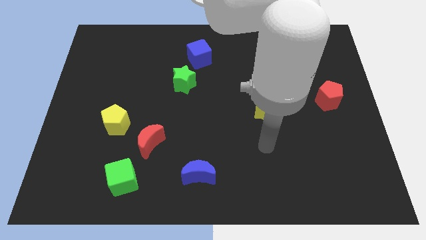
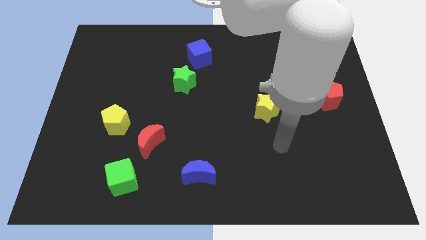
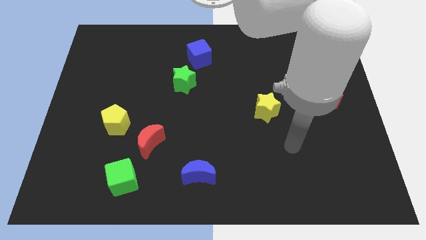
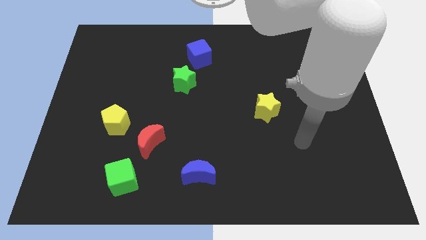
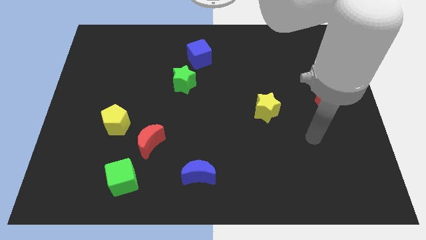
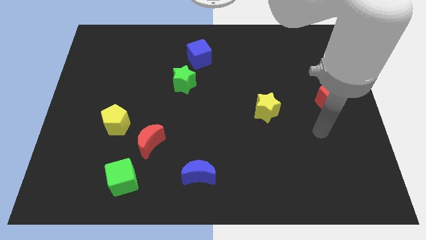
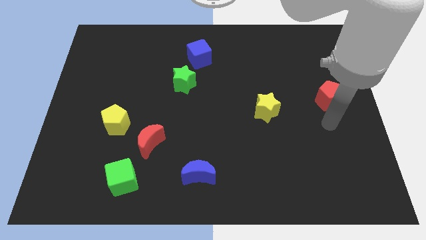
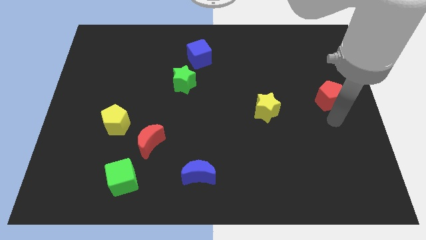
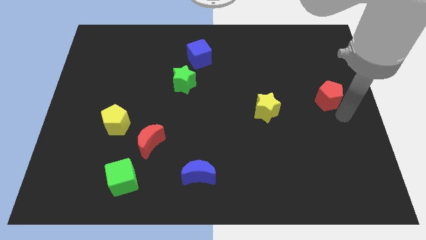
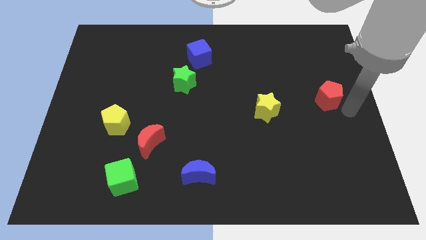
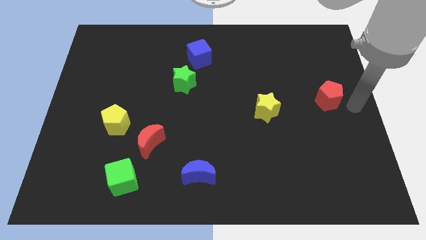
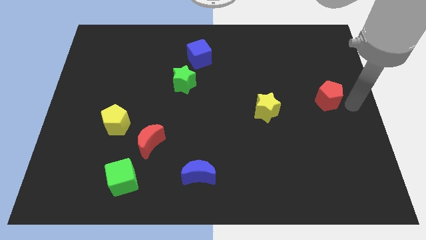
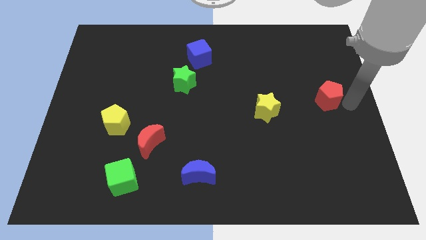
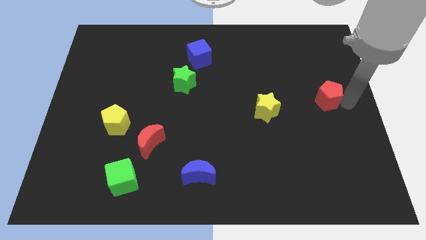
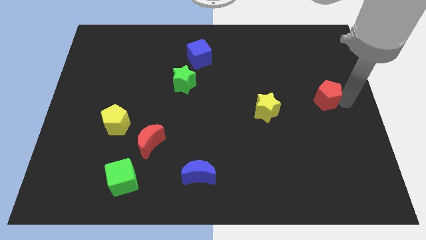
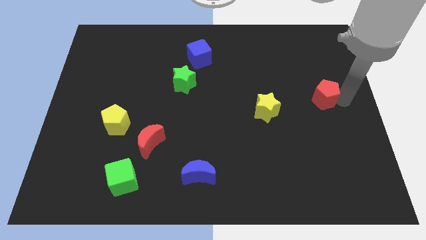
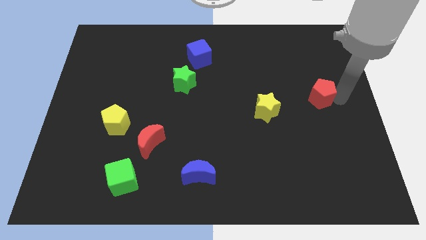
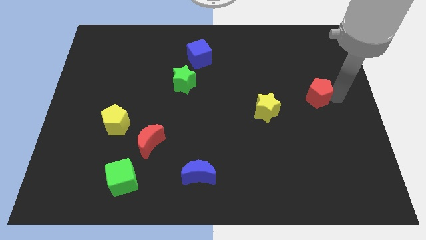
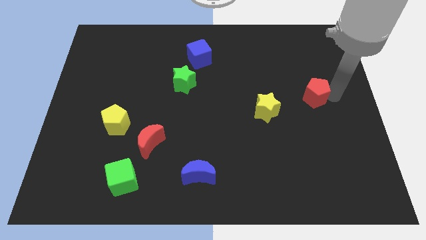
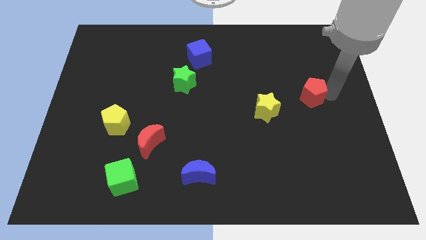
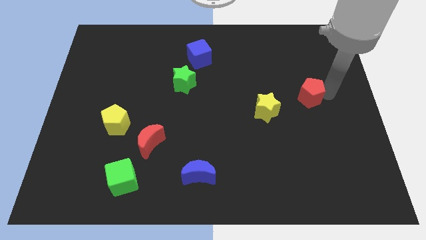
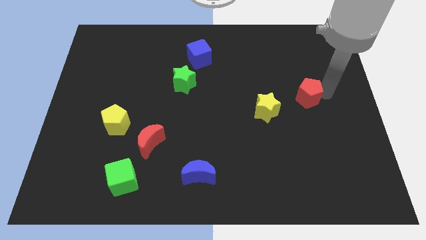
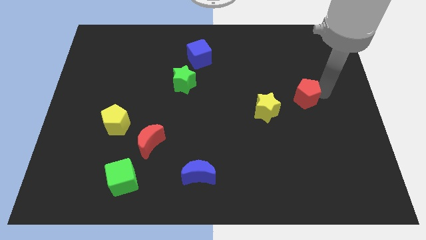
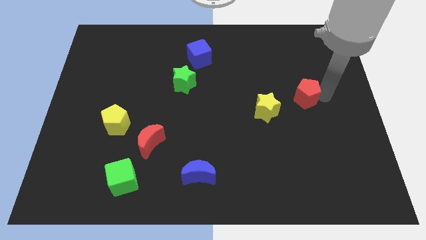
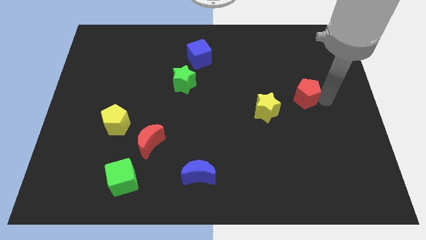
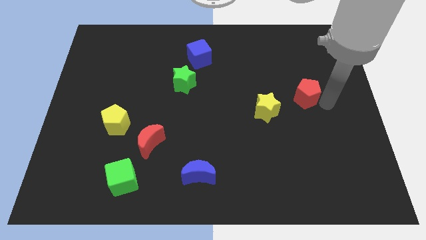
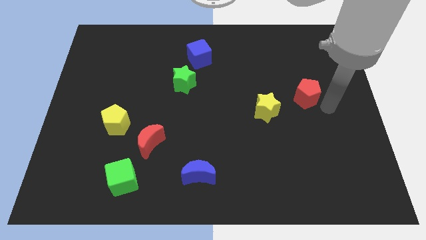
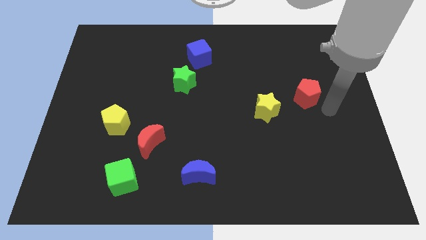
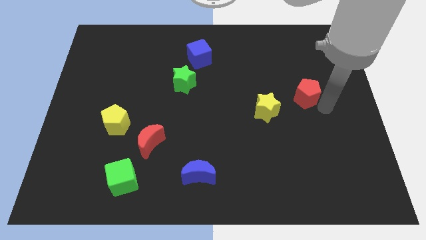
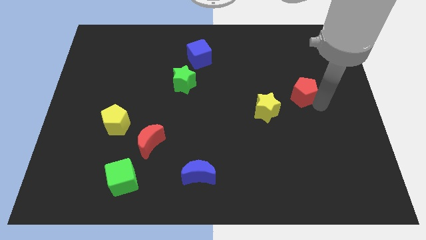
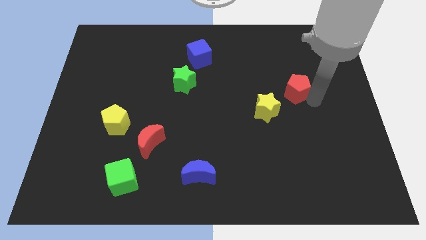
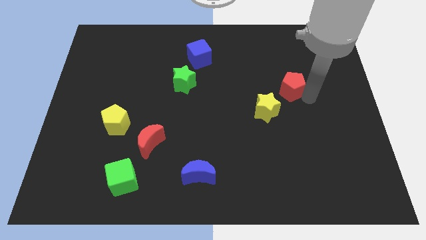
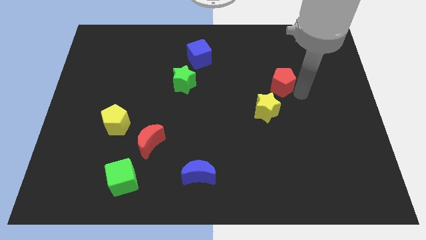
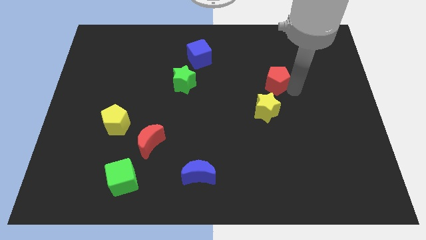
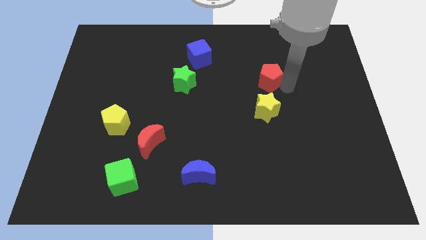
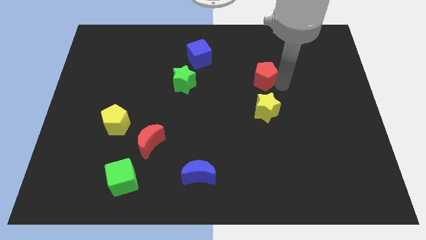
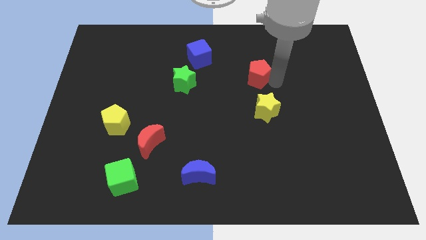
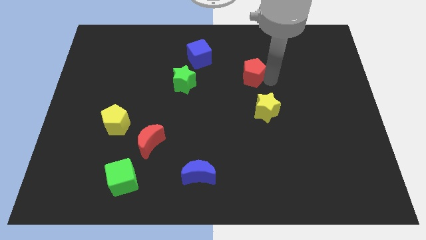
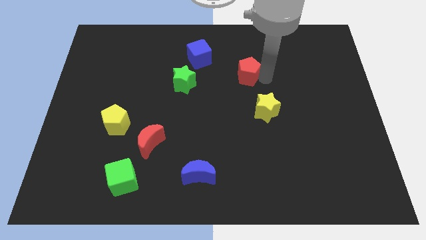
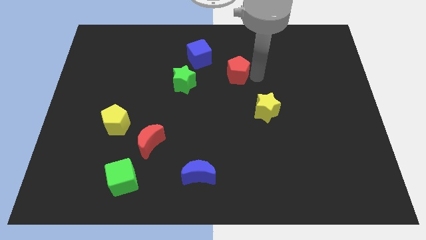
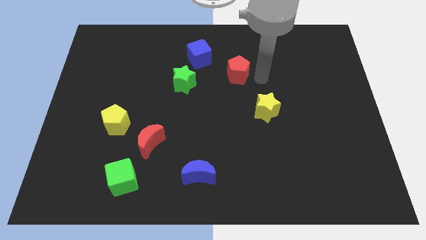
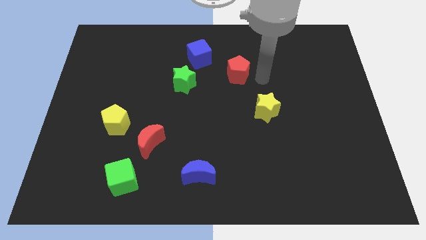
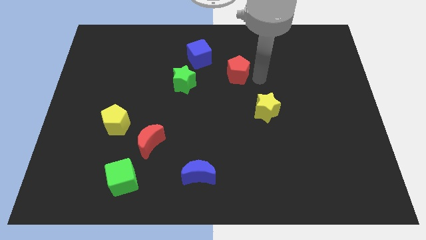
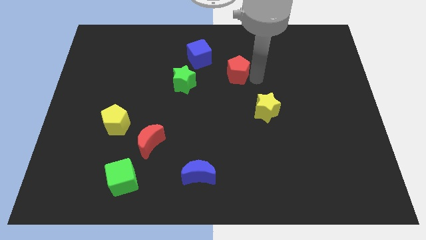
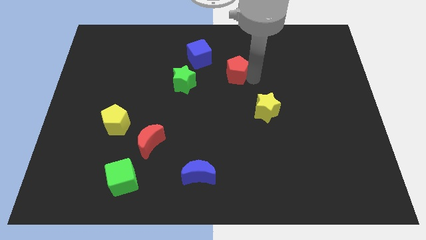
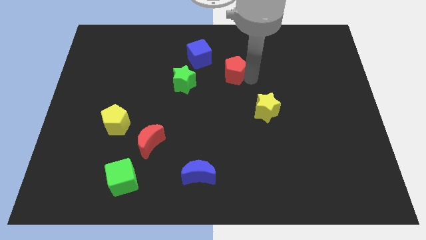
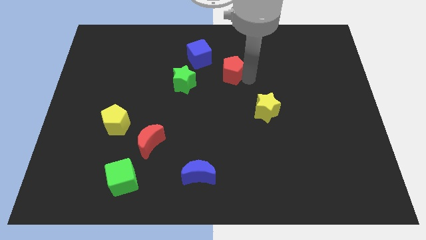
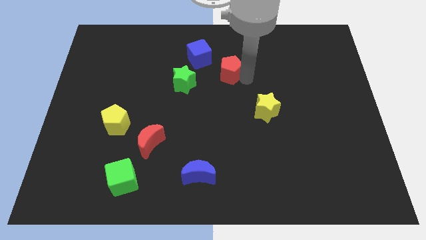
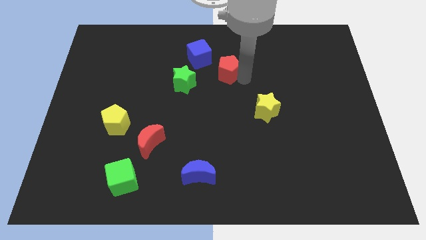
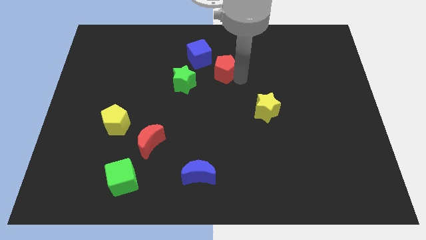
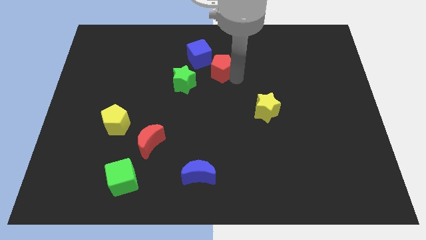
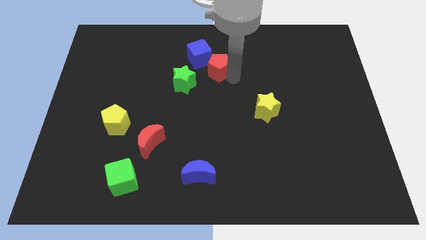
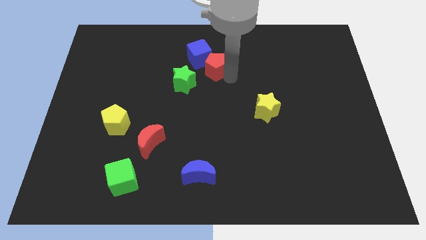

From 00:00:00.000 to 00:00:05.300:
push the red pentagon towards the blue cube

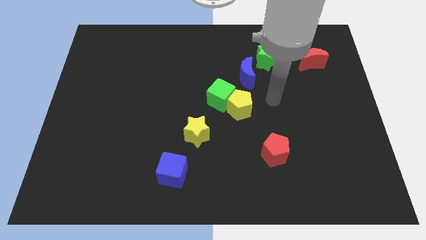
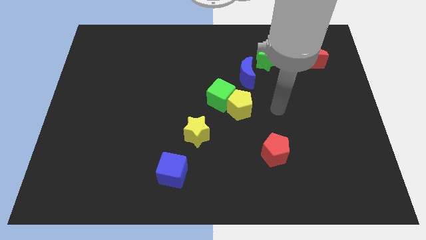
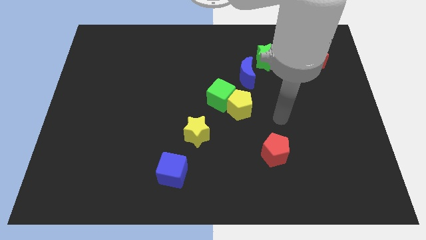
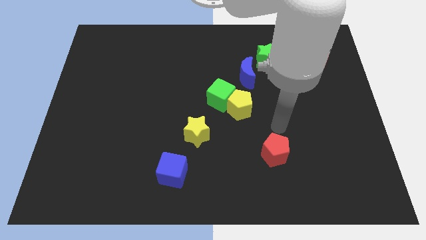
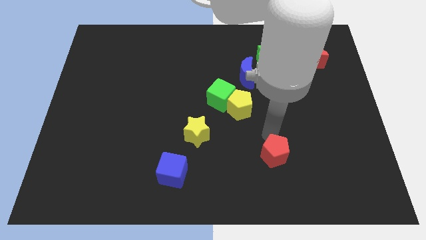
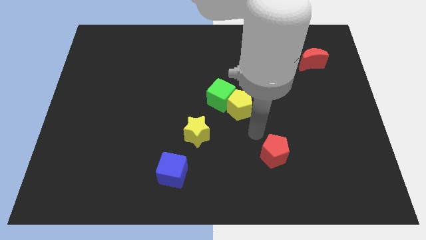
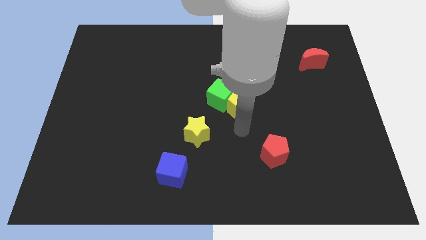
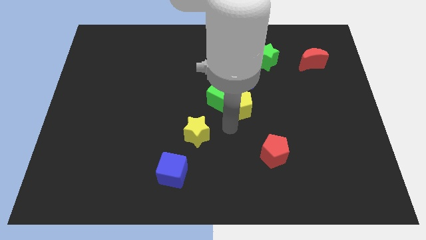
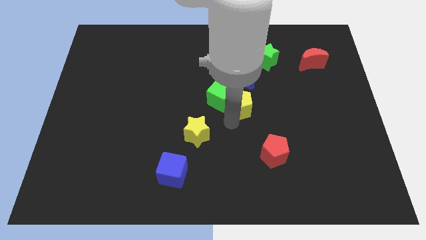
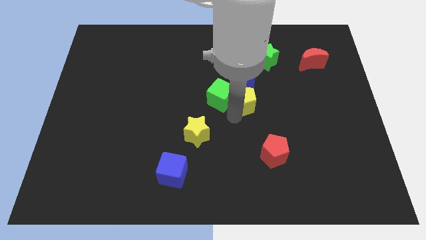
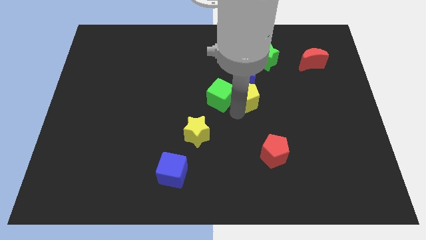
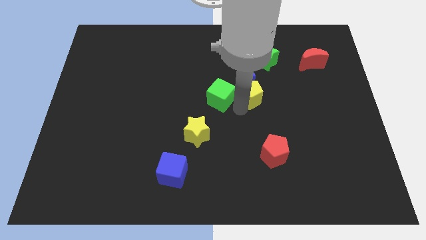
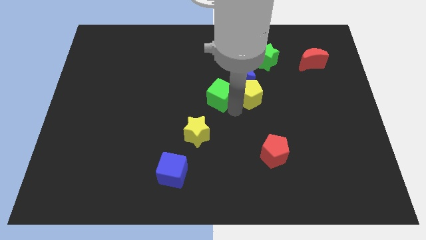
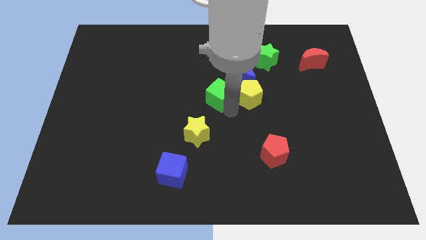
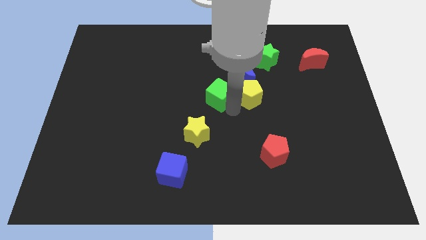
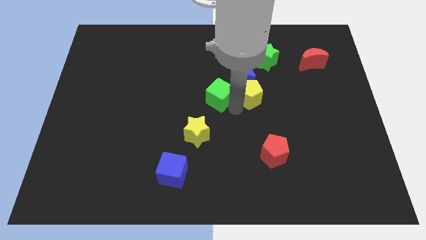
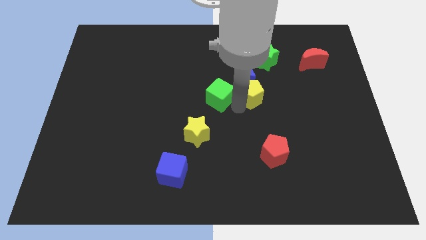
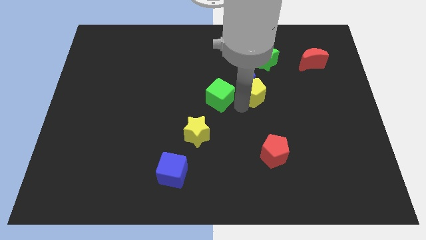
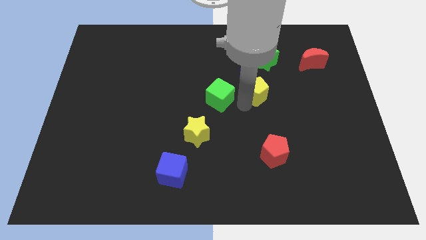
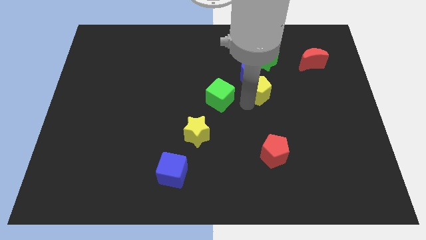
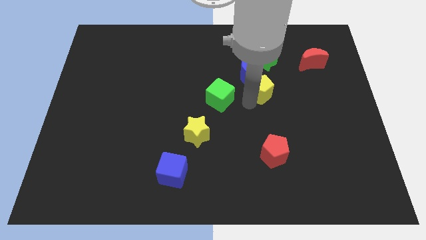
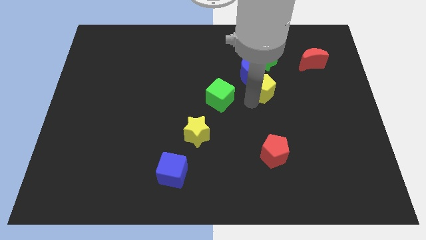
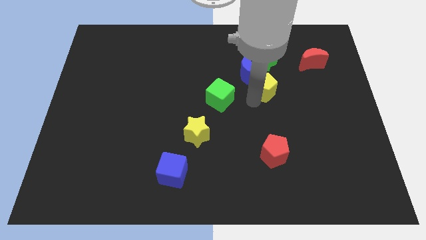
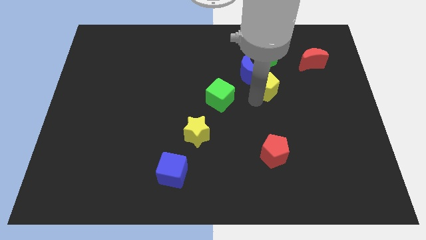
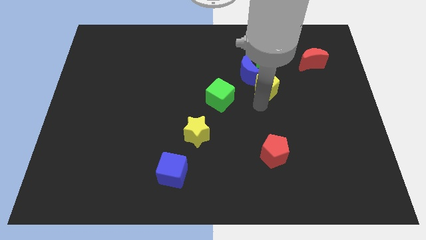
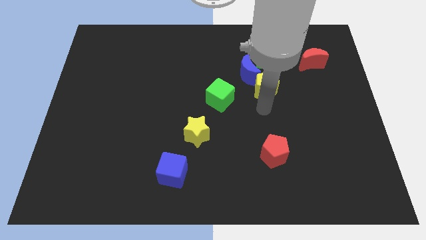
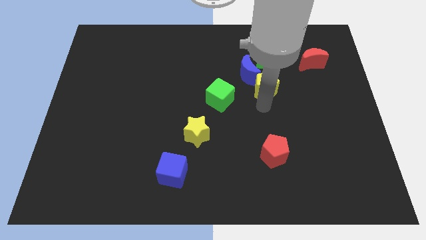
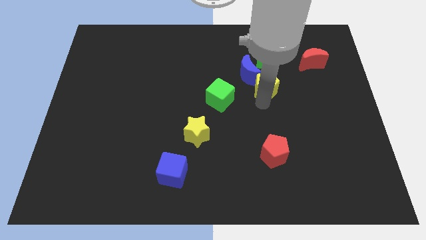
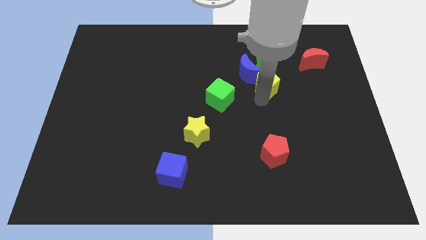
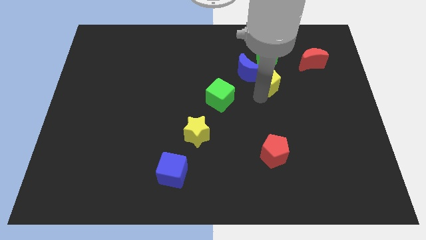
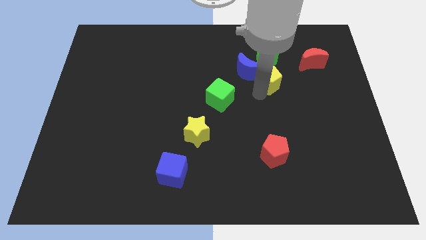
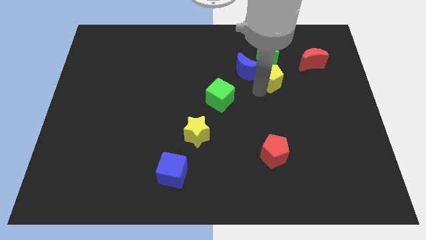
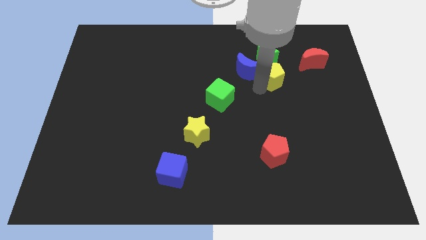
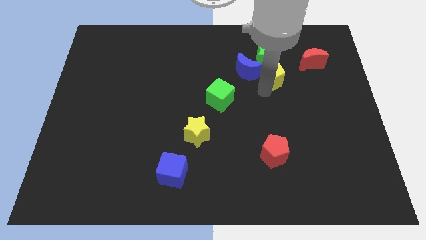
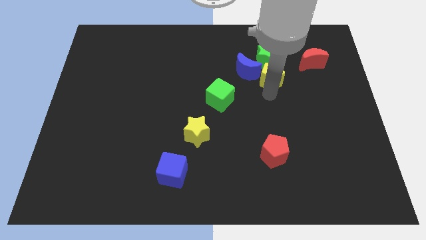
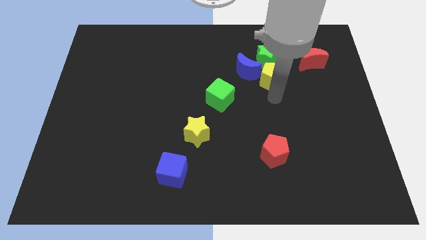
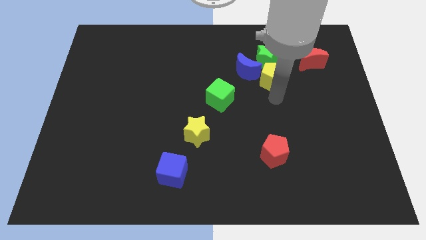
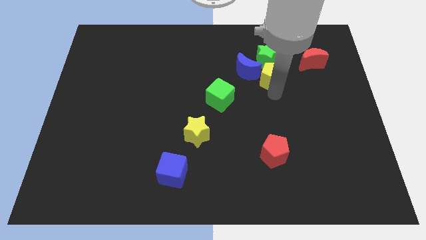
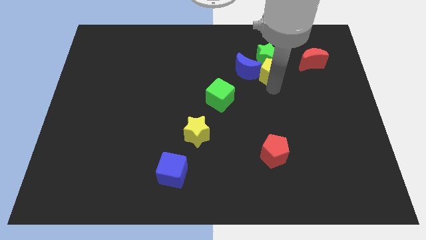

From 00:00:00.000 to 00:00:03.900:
move the yellow pentagon towards the green star
